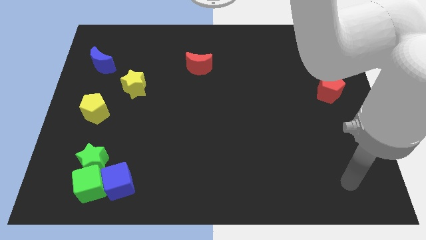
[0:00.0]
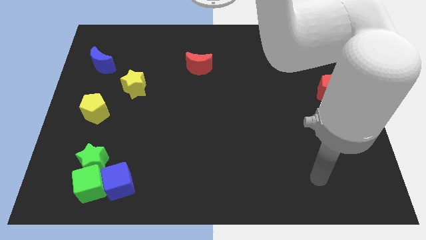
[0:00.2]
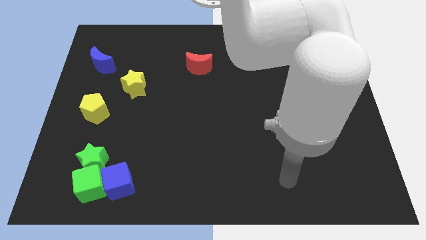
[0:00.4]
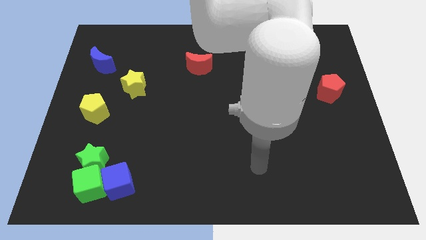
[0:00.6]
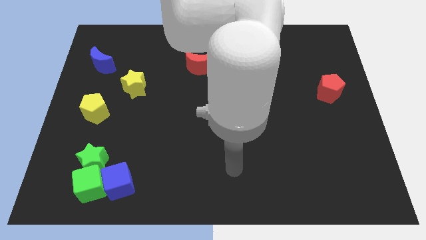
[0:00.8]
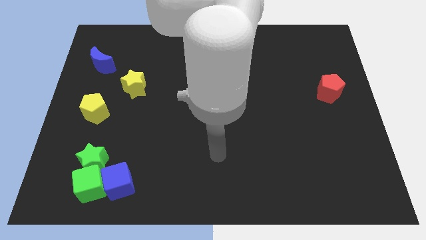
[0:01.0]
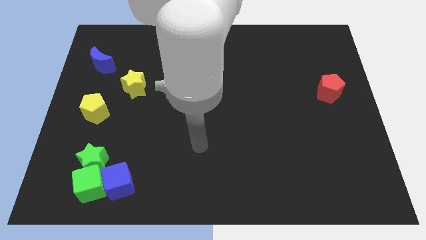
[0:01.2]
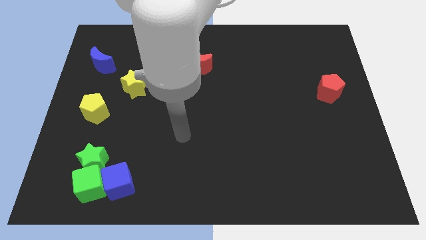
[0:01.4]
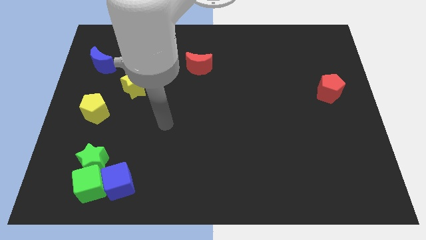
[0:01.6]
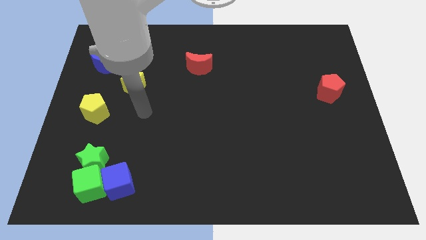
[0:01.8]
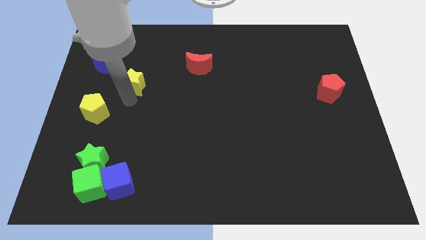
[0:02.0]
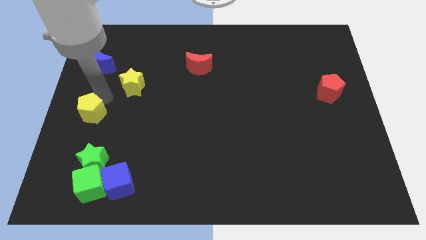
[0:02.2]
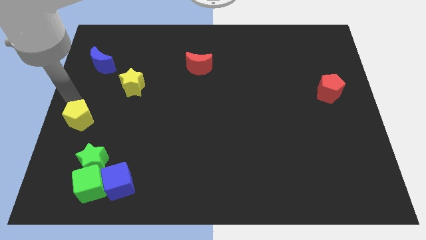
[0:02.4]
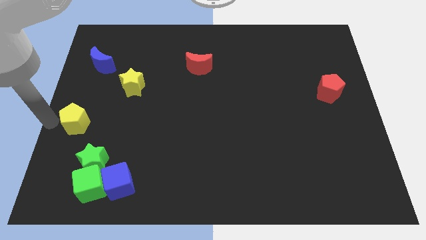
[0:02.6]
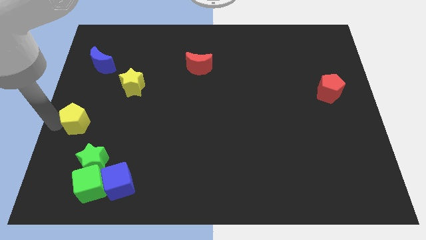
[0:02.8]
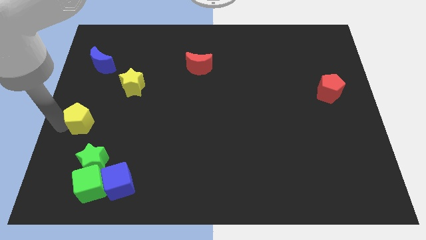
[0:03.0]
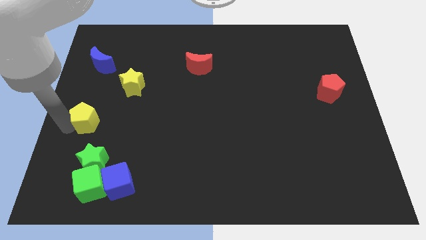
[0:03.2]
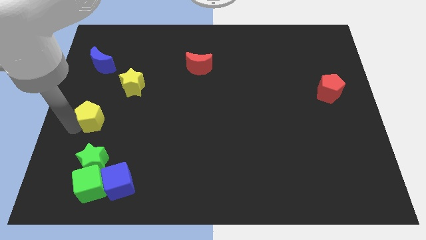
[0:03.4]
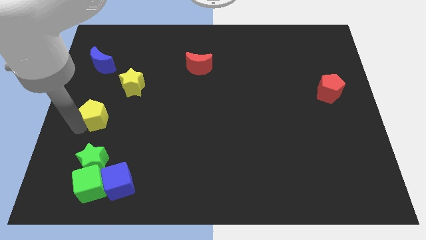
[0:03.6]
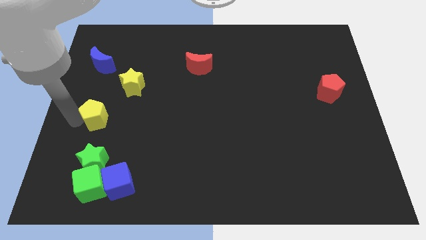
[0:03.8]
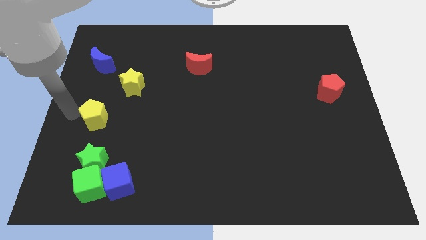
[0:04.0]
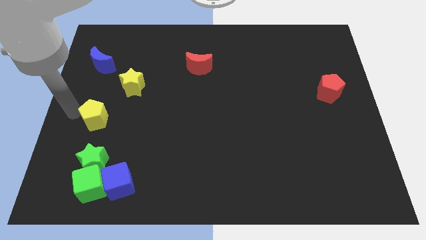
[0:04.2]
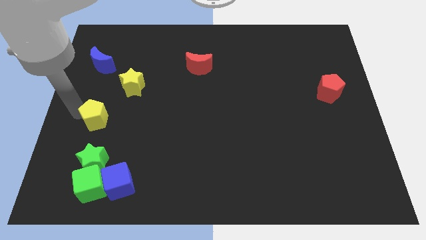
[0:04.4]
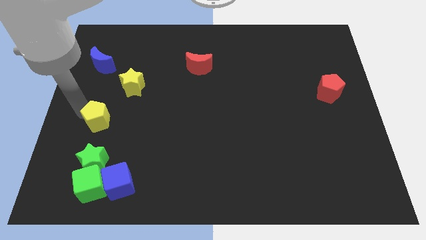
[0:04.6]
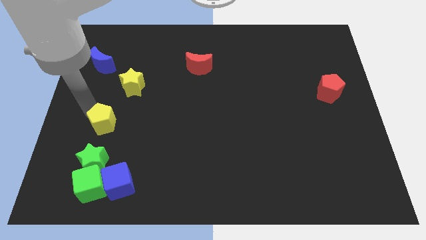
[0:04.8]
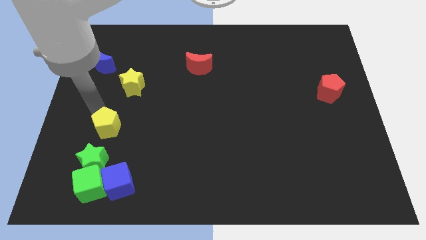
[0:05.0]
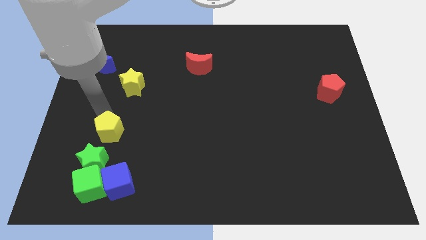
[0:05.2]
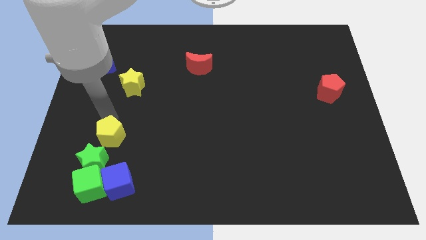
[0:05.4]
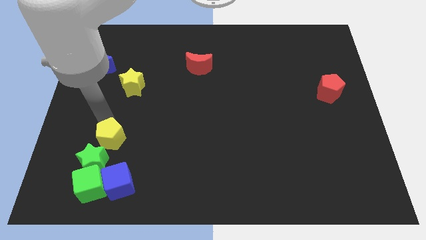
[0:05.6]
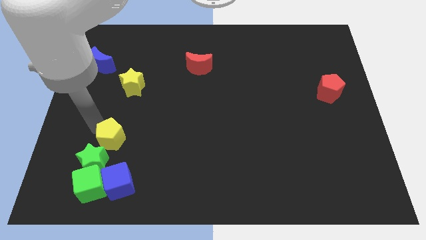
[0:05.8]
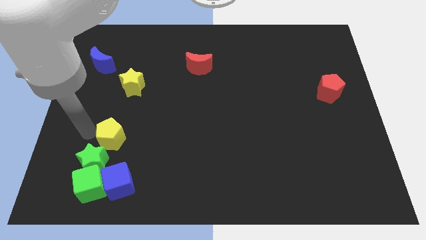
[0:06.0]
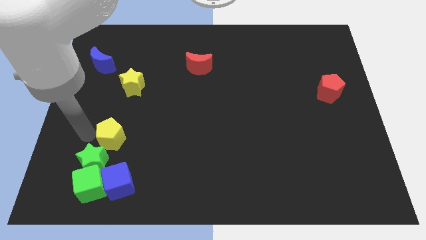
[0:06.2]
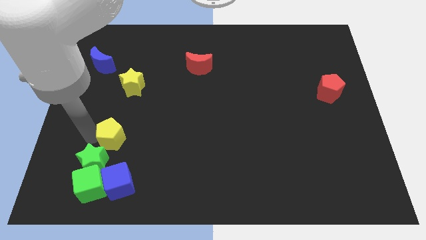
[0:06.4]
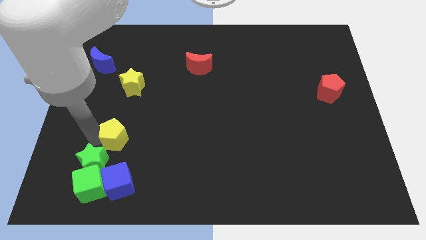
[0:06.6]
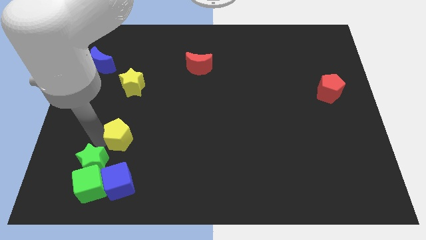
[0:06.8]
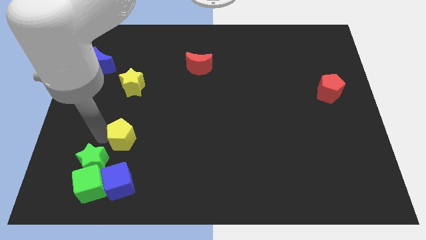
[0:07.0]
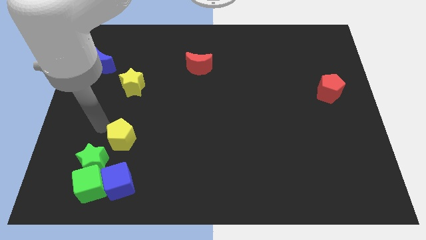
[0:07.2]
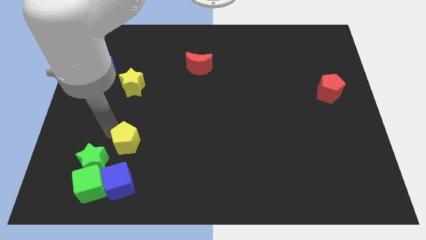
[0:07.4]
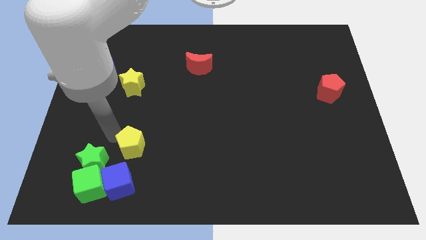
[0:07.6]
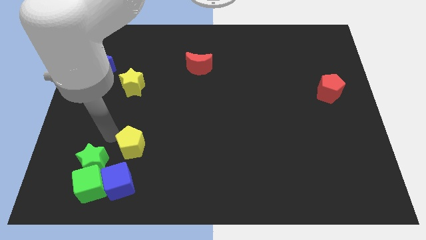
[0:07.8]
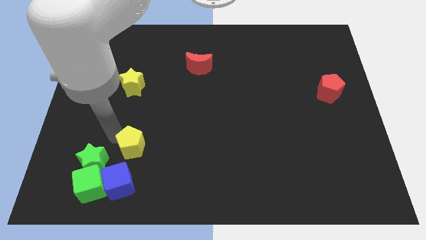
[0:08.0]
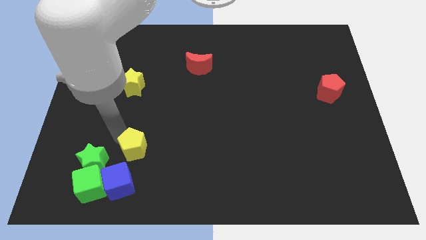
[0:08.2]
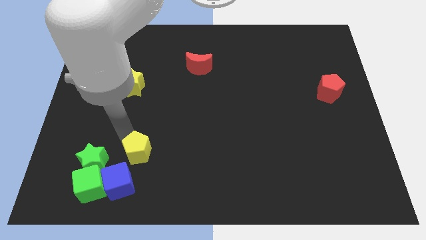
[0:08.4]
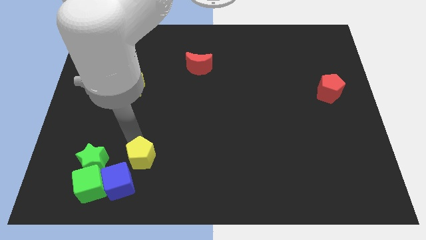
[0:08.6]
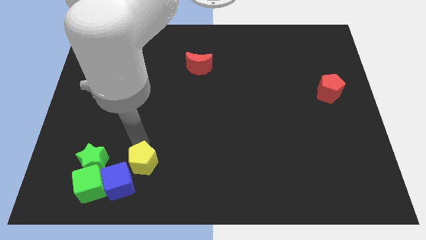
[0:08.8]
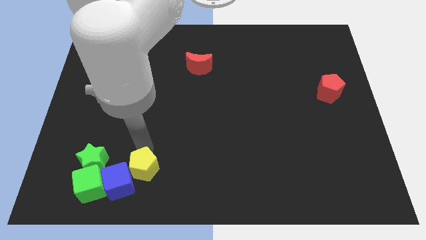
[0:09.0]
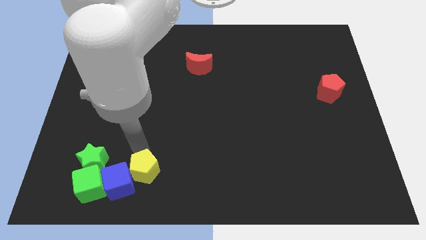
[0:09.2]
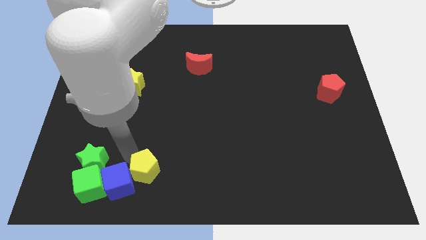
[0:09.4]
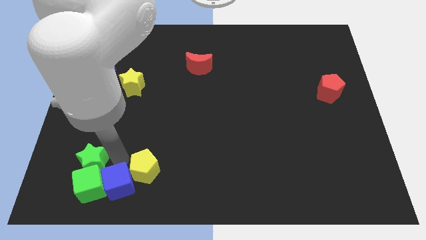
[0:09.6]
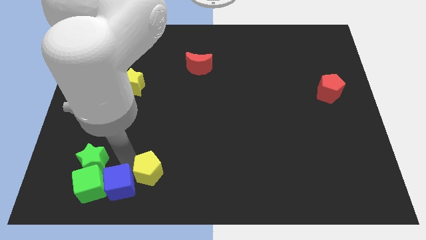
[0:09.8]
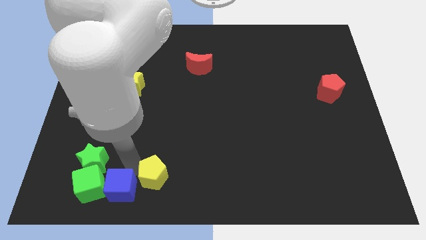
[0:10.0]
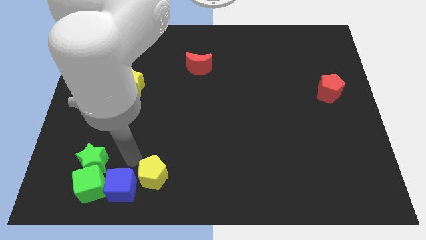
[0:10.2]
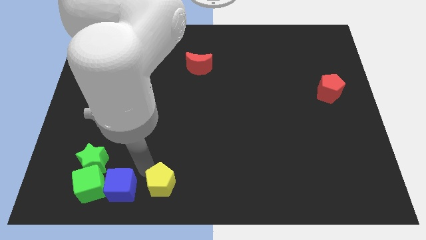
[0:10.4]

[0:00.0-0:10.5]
push the yellow pentagon to the bottom side

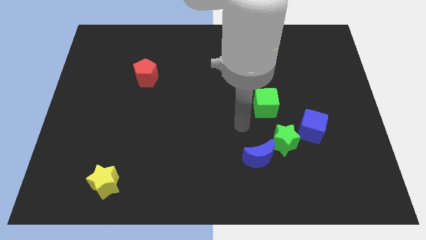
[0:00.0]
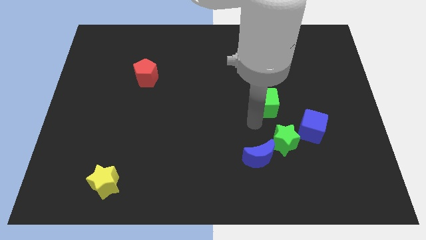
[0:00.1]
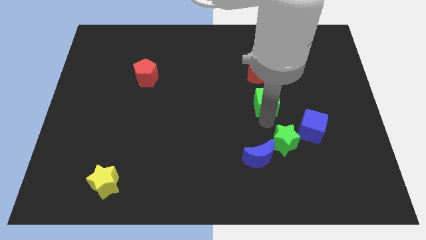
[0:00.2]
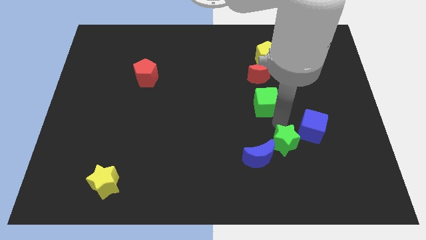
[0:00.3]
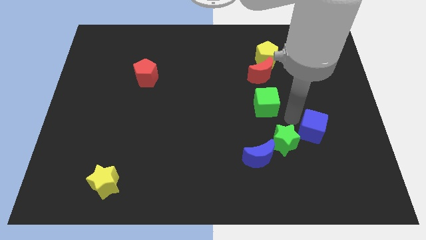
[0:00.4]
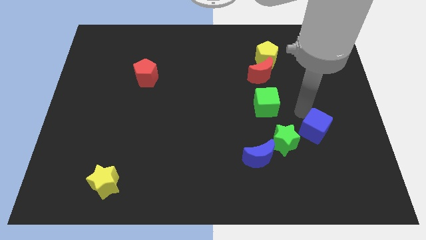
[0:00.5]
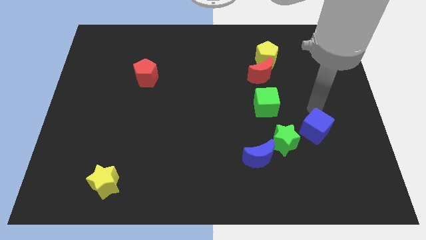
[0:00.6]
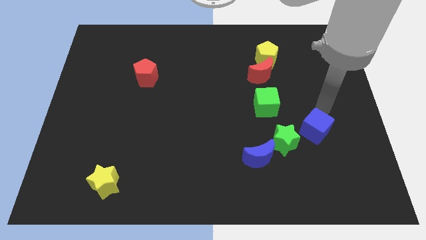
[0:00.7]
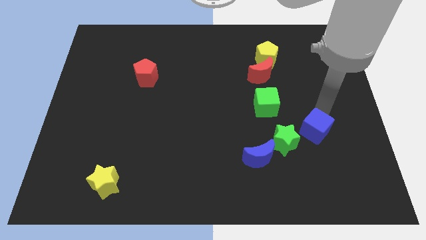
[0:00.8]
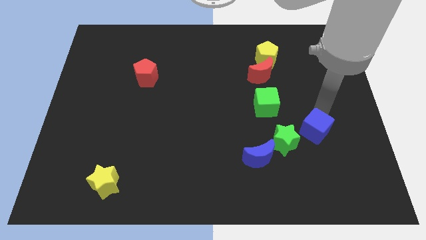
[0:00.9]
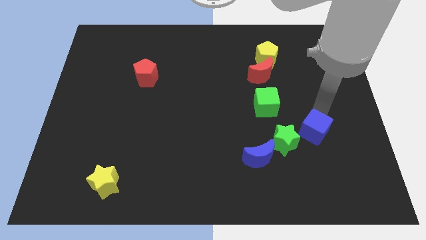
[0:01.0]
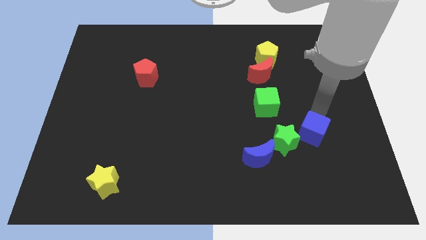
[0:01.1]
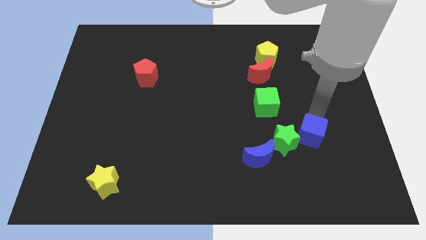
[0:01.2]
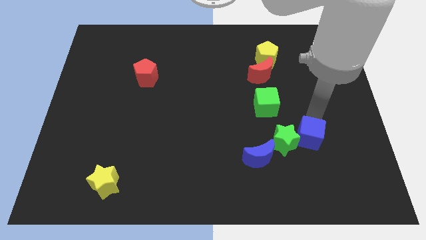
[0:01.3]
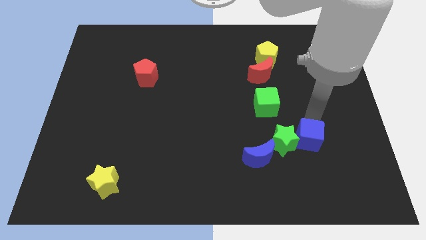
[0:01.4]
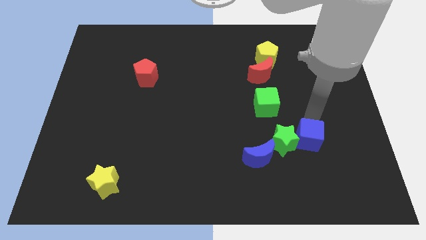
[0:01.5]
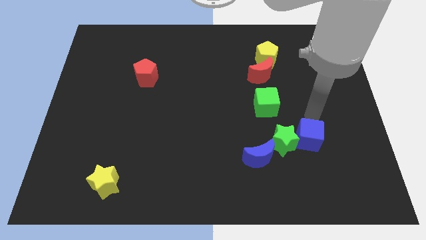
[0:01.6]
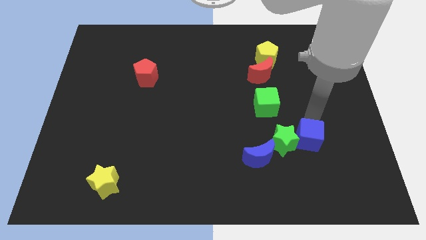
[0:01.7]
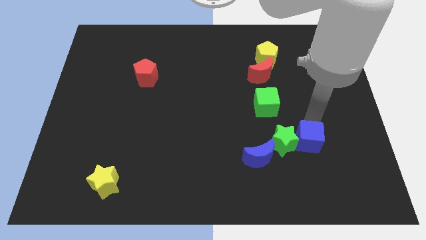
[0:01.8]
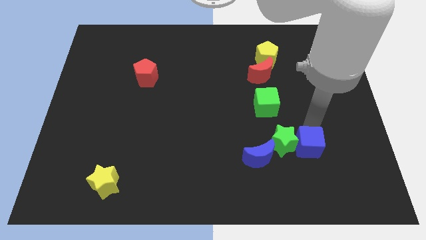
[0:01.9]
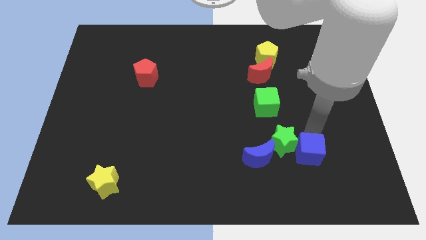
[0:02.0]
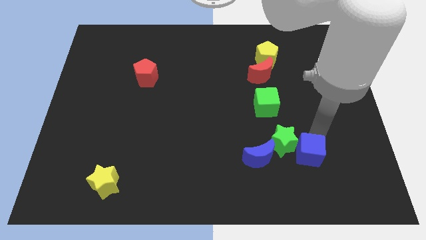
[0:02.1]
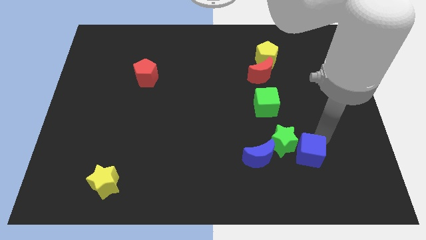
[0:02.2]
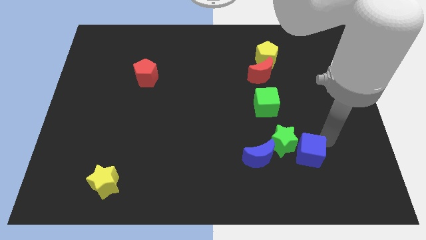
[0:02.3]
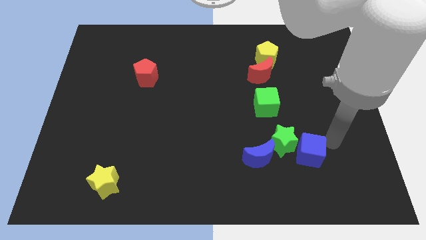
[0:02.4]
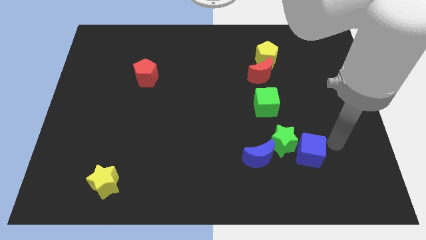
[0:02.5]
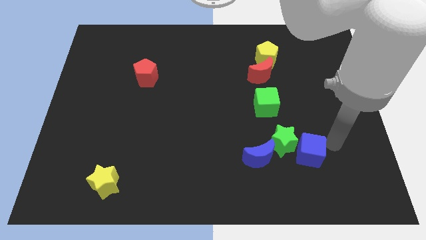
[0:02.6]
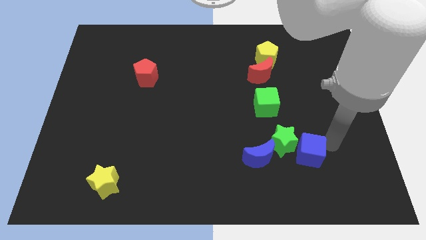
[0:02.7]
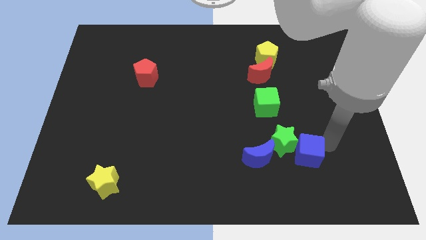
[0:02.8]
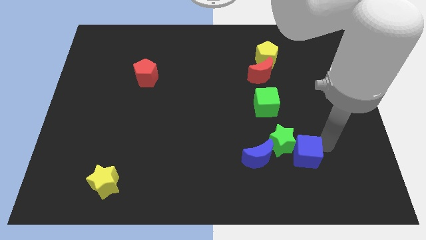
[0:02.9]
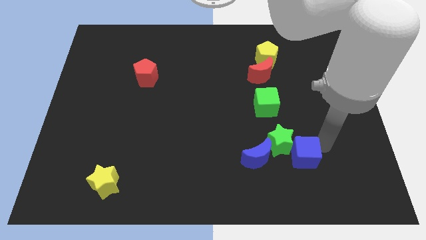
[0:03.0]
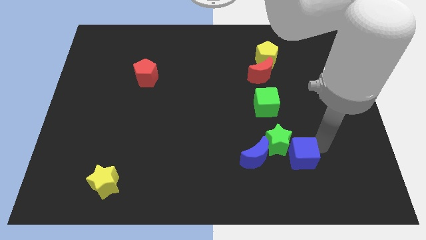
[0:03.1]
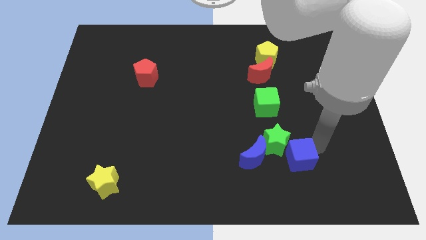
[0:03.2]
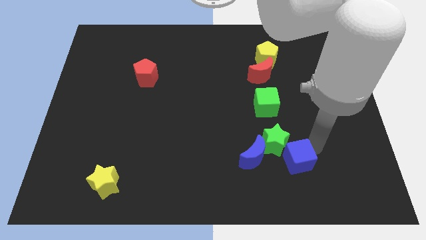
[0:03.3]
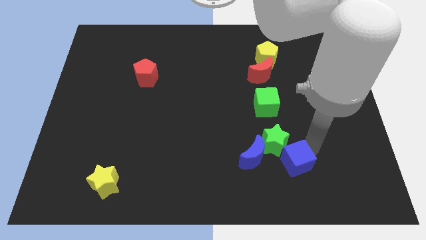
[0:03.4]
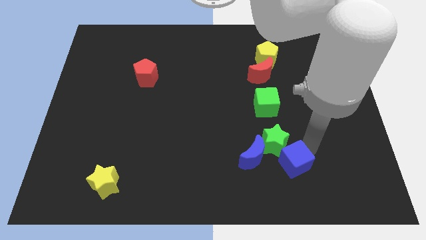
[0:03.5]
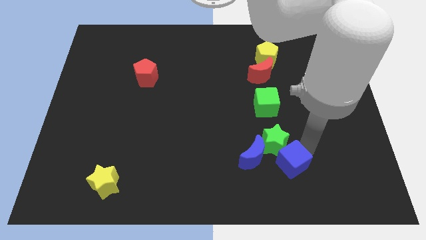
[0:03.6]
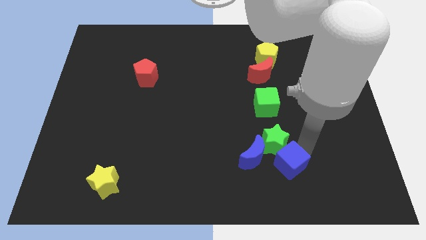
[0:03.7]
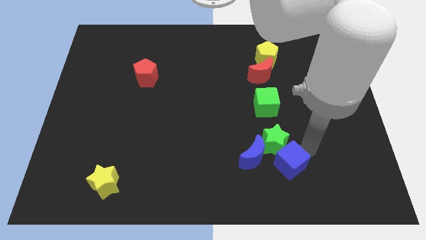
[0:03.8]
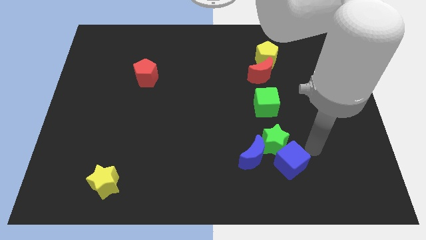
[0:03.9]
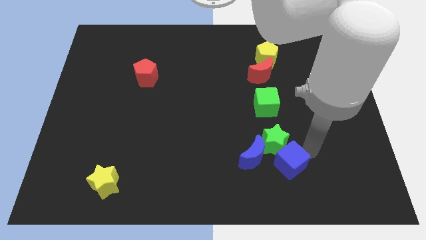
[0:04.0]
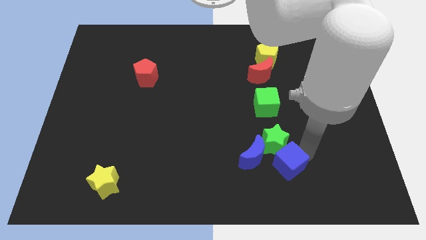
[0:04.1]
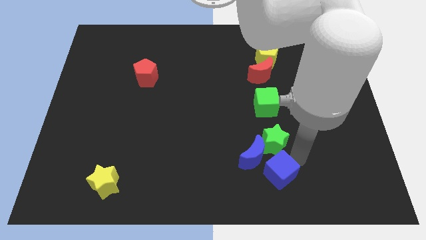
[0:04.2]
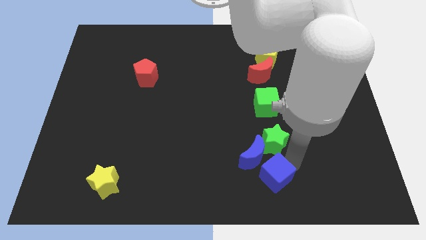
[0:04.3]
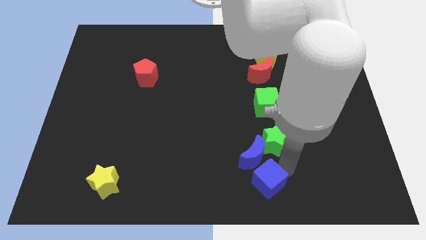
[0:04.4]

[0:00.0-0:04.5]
slide the blue cube to the bottom
